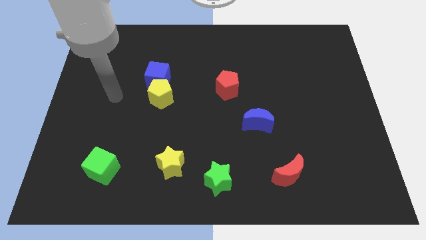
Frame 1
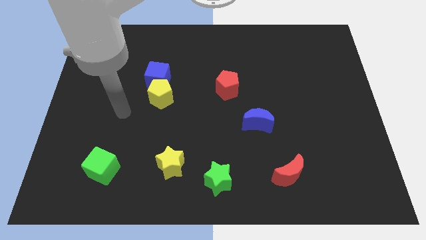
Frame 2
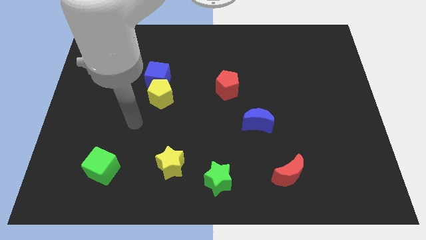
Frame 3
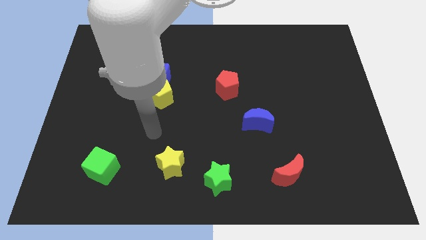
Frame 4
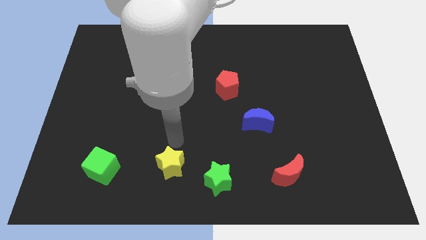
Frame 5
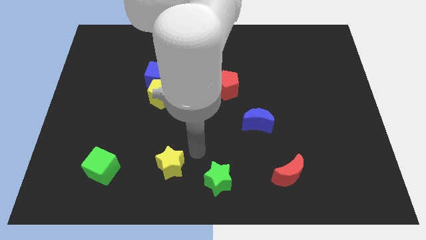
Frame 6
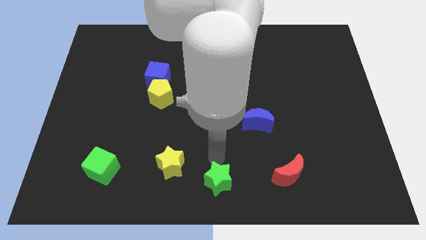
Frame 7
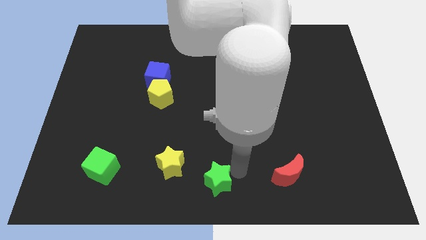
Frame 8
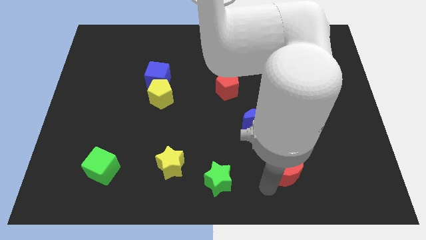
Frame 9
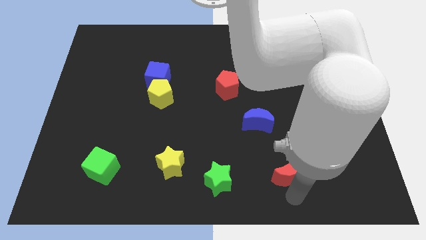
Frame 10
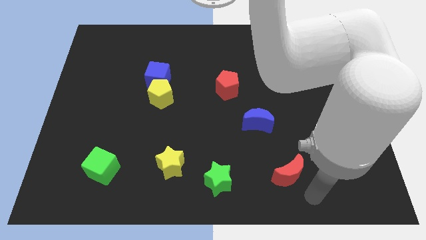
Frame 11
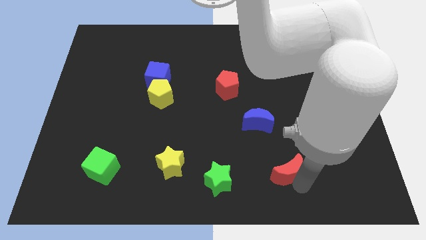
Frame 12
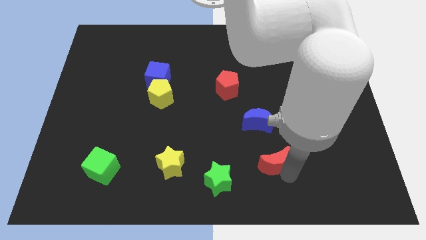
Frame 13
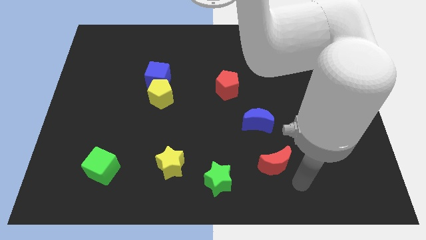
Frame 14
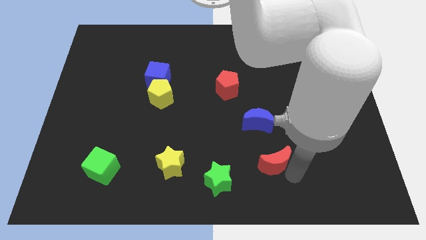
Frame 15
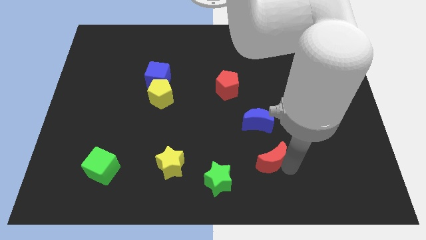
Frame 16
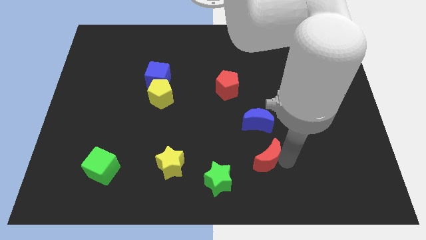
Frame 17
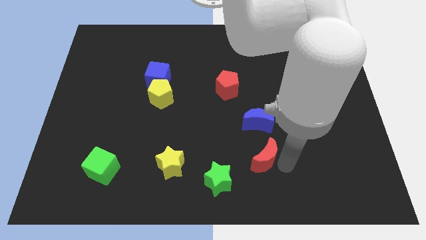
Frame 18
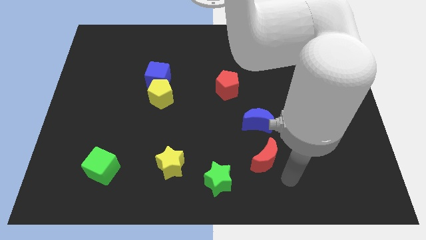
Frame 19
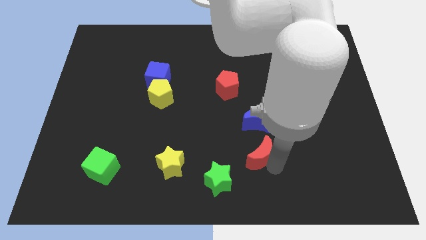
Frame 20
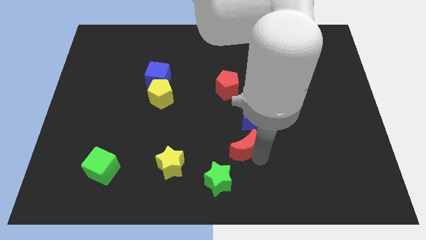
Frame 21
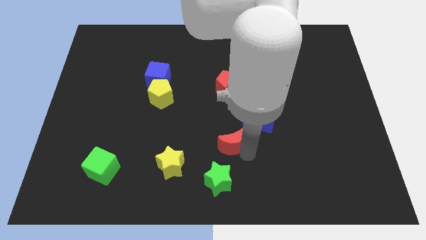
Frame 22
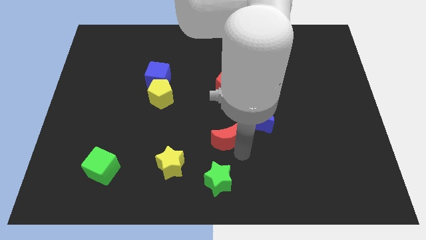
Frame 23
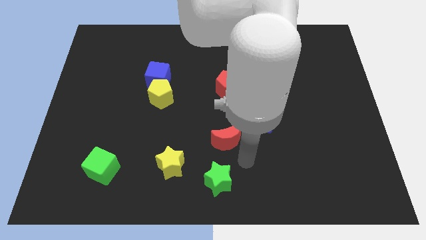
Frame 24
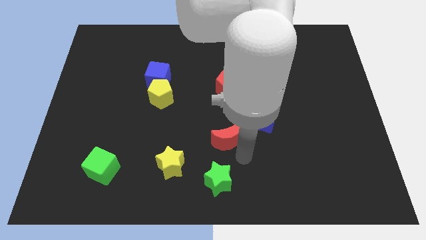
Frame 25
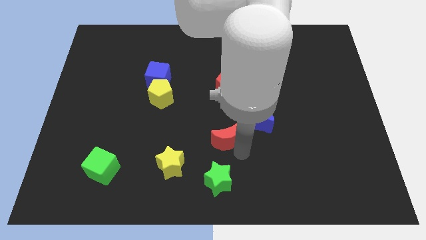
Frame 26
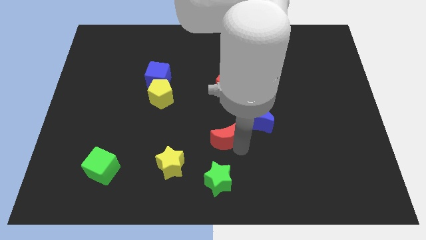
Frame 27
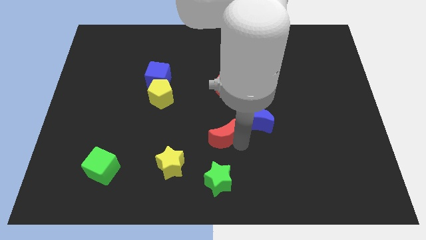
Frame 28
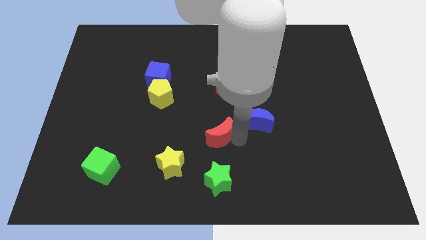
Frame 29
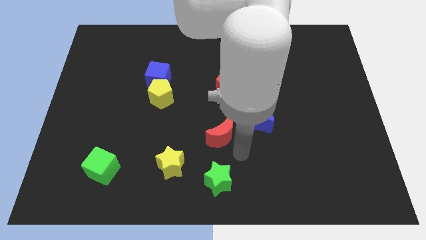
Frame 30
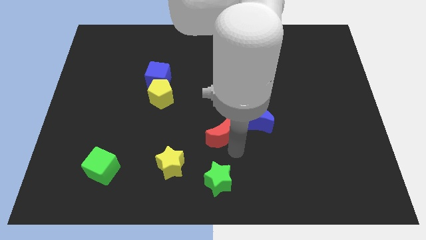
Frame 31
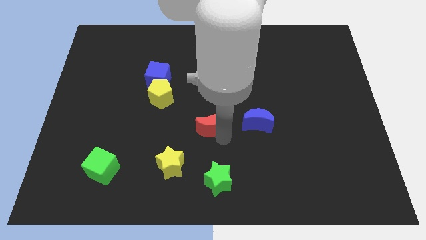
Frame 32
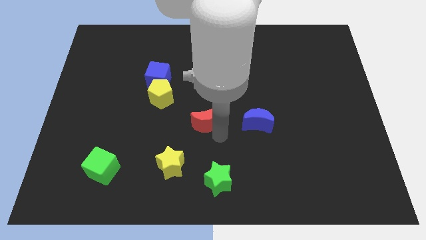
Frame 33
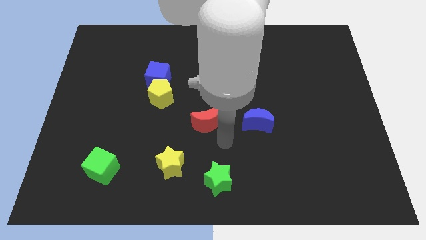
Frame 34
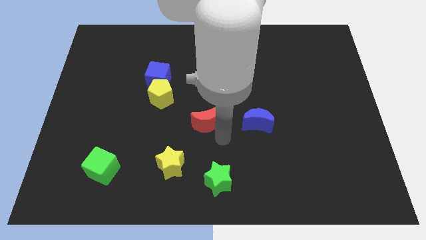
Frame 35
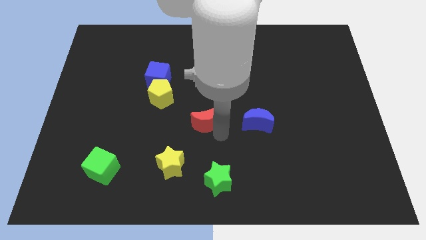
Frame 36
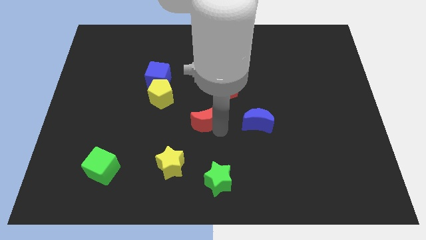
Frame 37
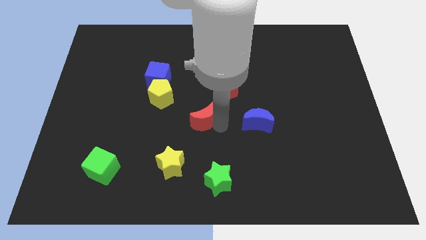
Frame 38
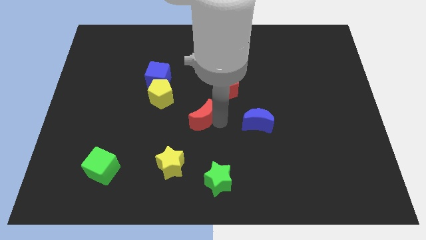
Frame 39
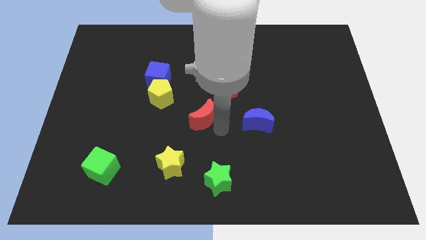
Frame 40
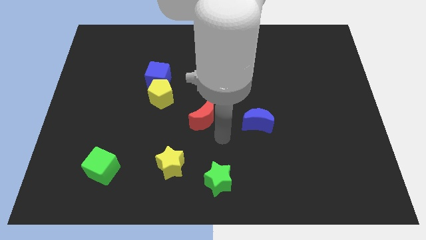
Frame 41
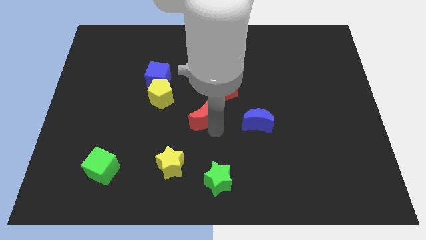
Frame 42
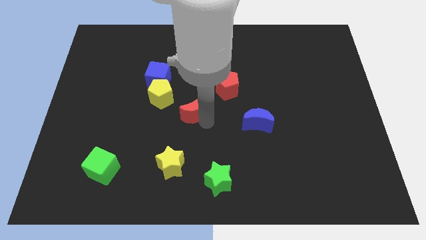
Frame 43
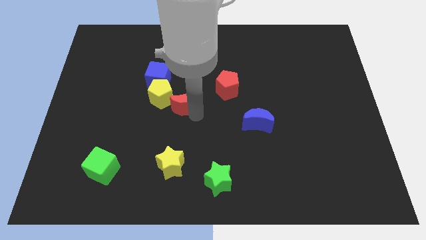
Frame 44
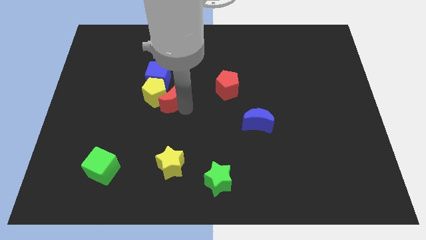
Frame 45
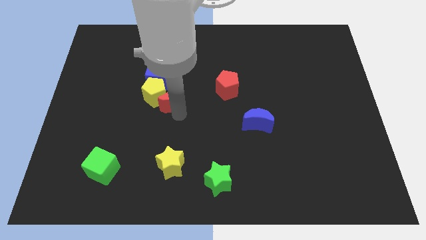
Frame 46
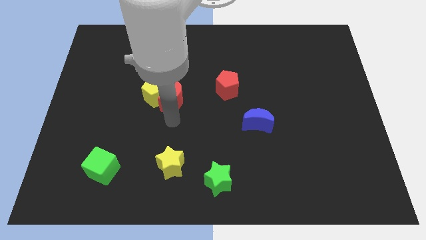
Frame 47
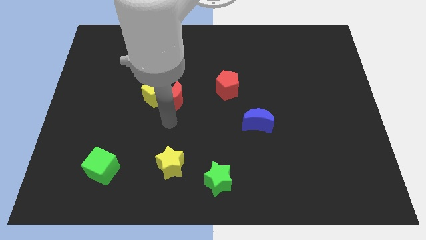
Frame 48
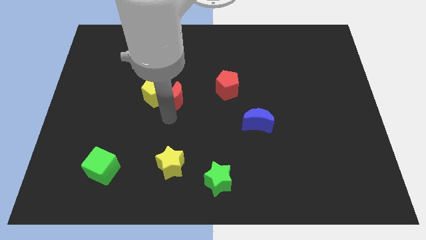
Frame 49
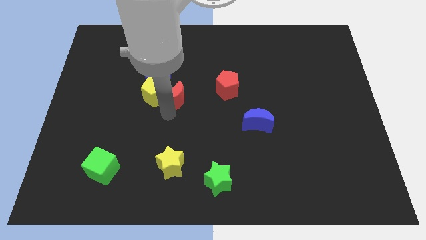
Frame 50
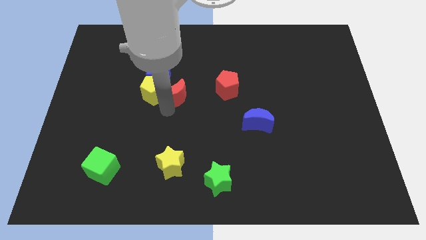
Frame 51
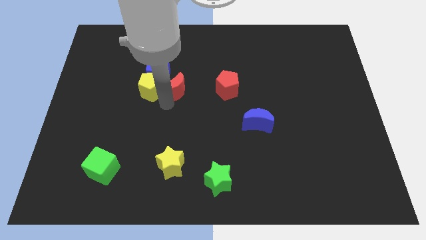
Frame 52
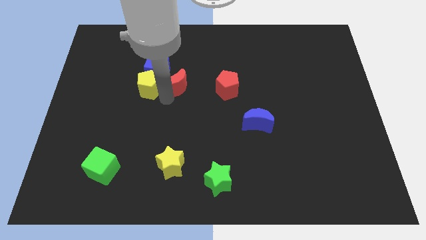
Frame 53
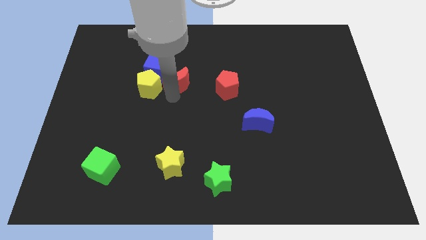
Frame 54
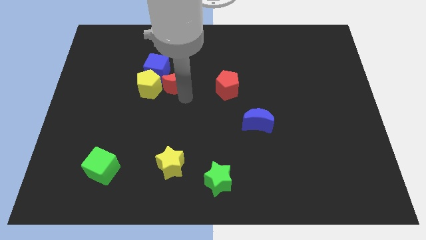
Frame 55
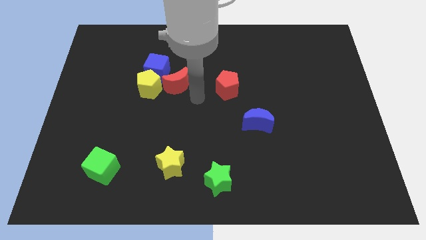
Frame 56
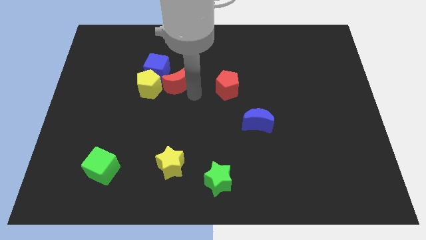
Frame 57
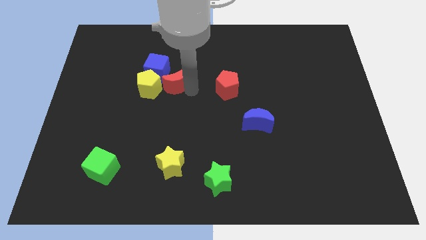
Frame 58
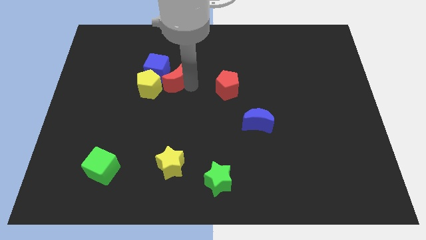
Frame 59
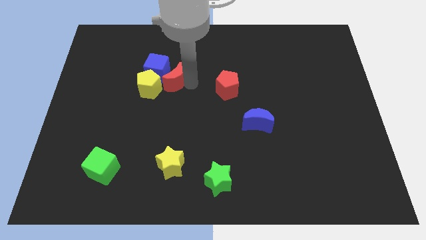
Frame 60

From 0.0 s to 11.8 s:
move the red moon to the blue cube

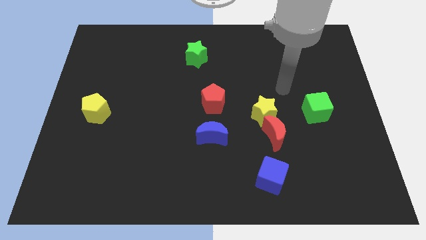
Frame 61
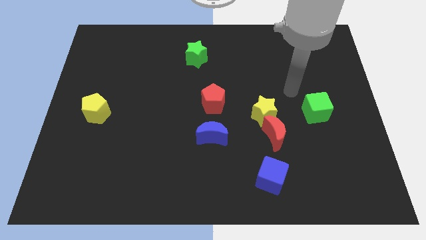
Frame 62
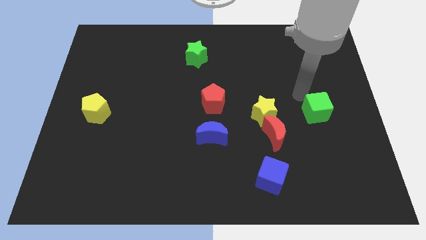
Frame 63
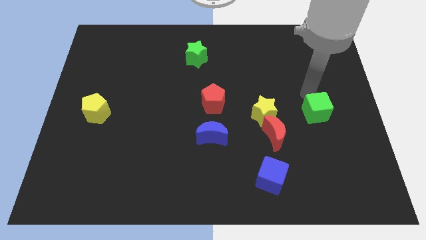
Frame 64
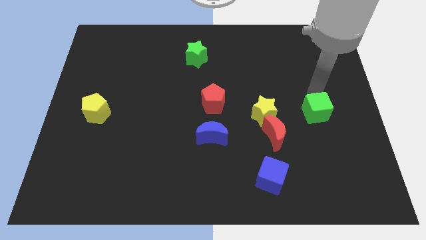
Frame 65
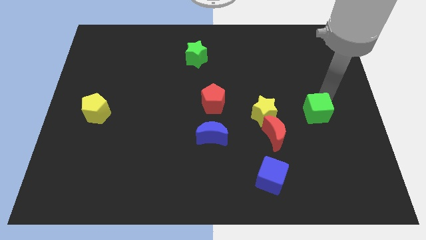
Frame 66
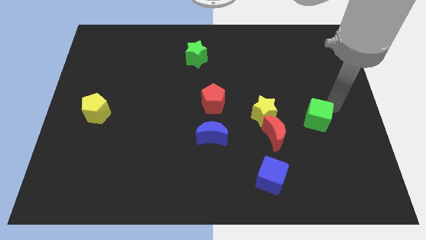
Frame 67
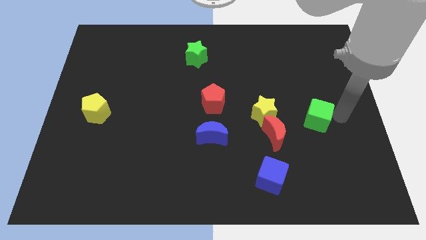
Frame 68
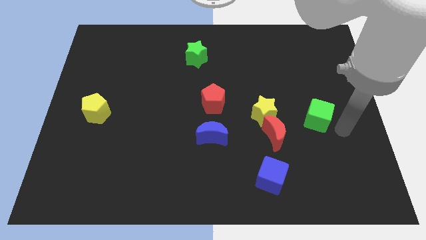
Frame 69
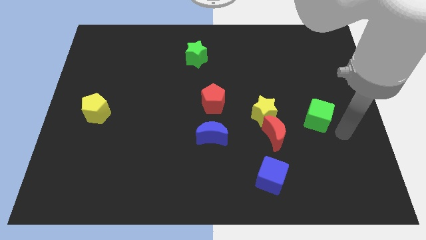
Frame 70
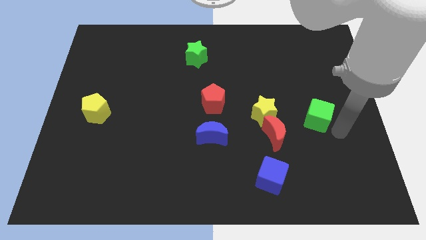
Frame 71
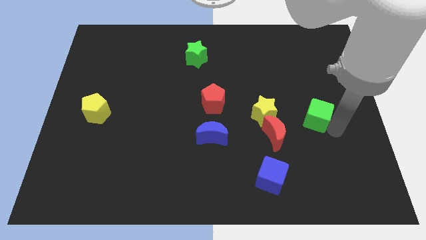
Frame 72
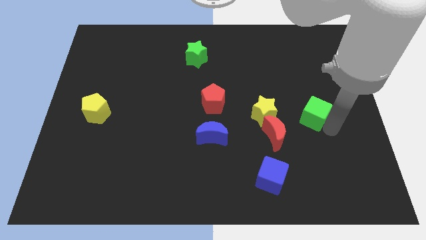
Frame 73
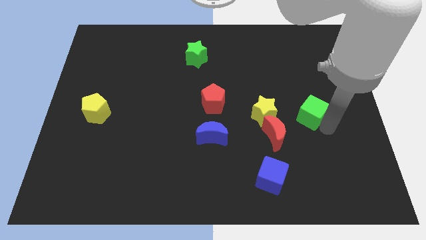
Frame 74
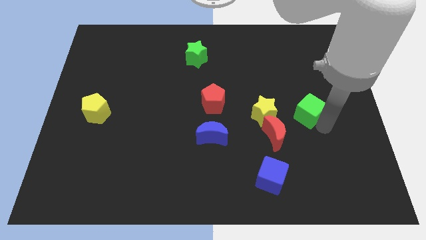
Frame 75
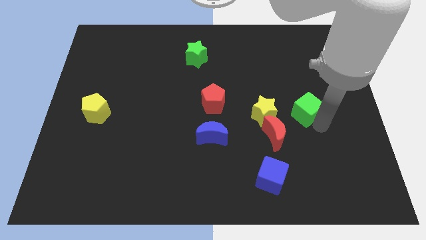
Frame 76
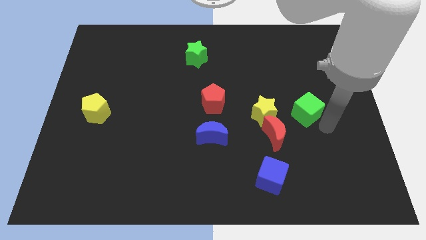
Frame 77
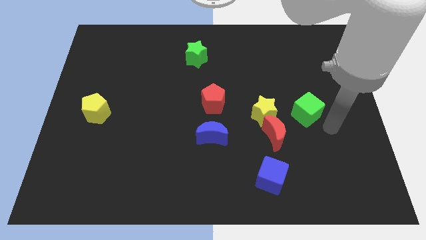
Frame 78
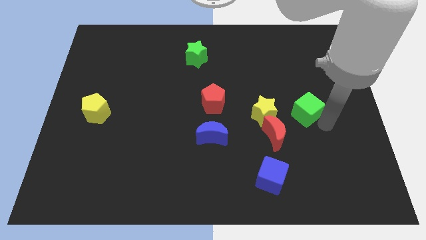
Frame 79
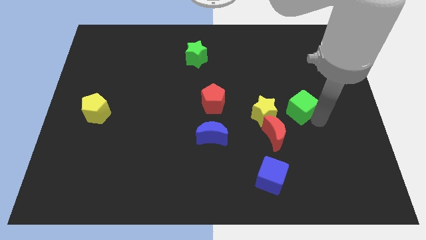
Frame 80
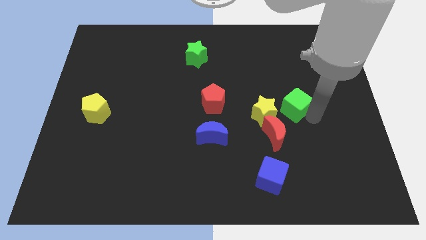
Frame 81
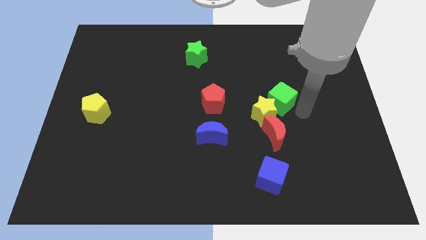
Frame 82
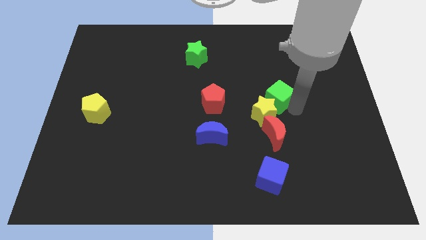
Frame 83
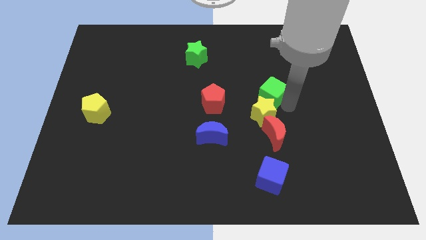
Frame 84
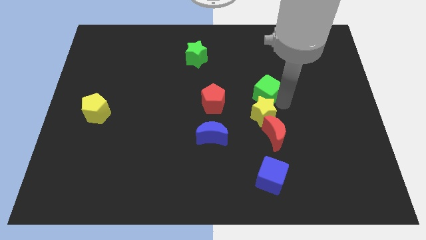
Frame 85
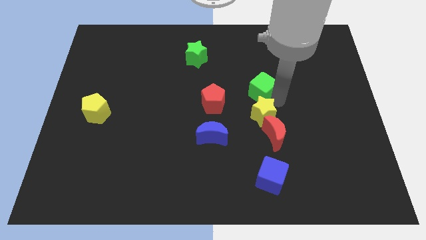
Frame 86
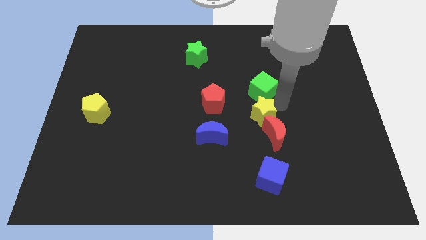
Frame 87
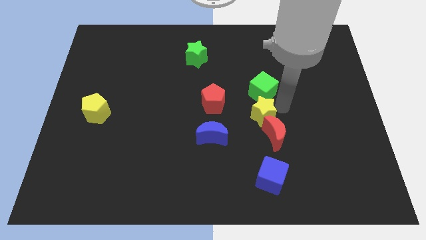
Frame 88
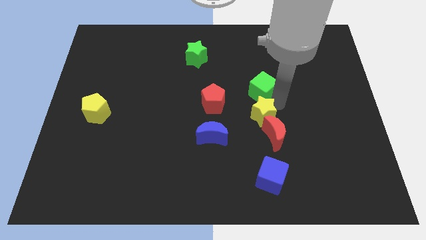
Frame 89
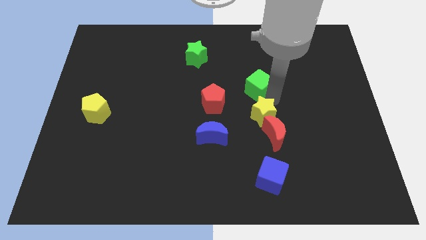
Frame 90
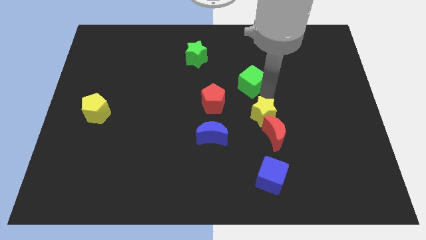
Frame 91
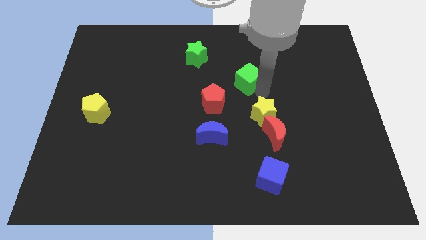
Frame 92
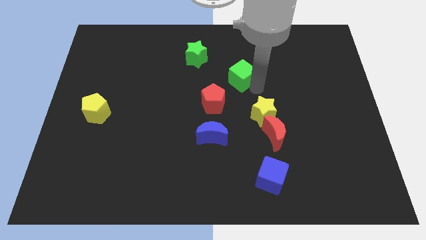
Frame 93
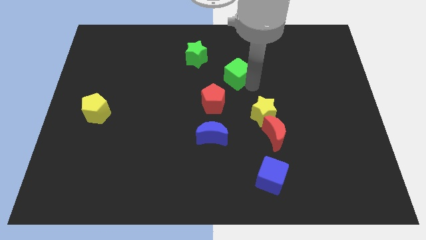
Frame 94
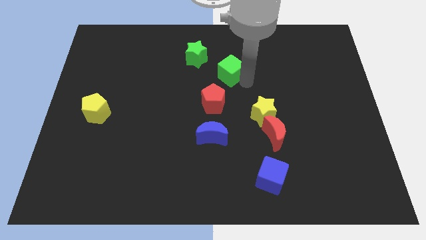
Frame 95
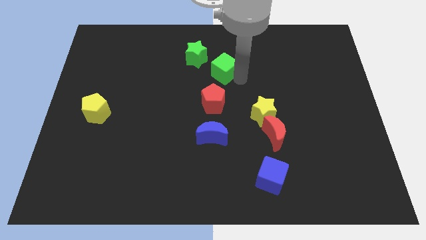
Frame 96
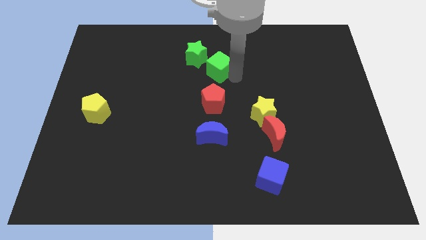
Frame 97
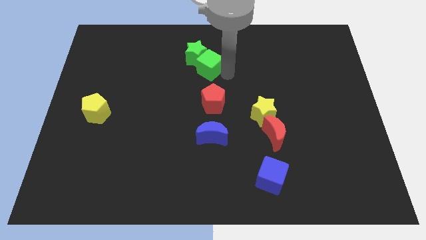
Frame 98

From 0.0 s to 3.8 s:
slide the green cube towards the green star
